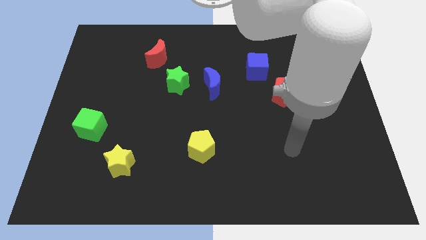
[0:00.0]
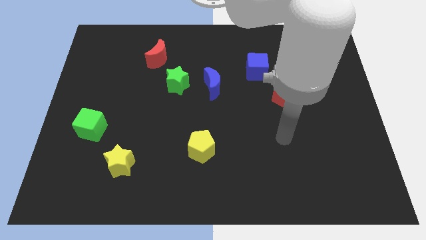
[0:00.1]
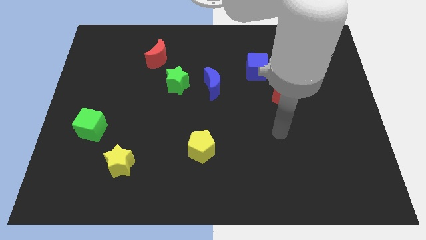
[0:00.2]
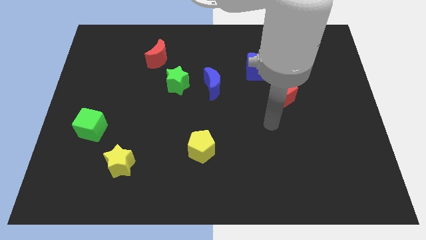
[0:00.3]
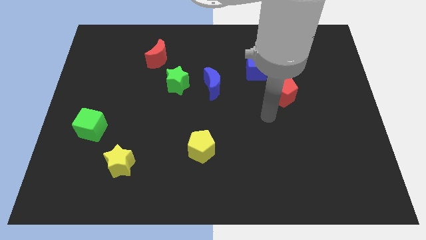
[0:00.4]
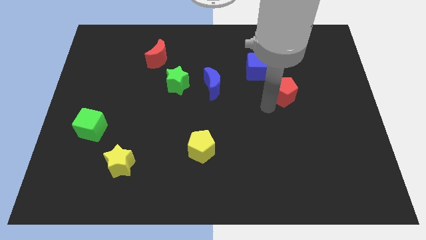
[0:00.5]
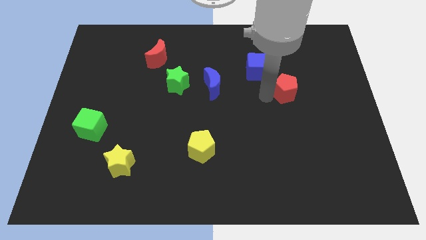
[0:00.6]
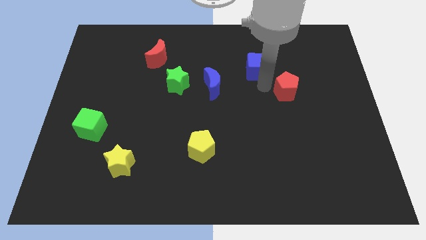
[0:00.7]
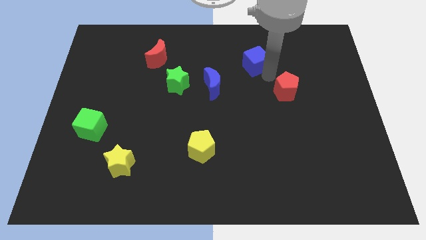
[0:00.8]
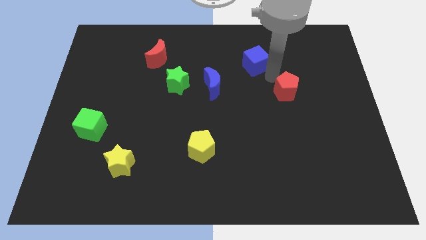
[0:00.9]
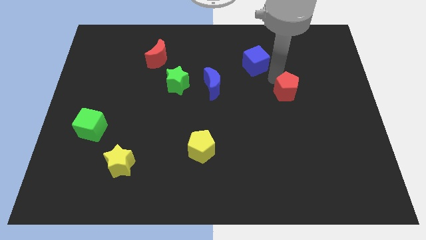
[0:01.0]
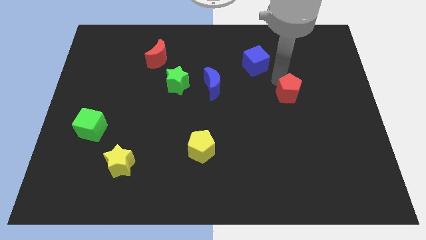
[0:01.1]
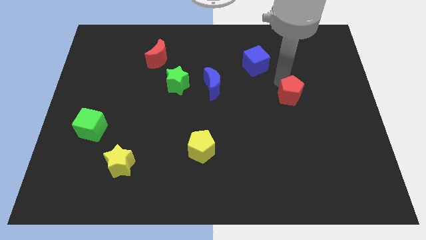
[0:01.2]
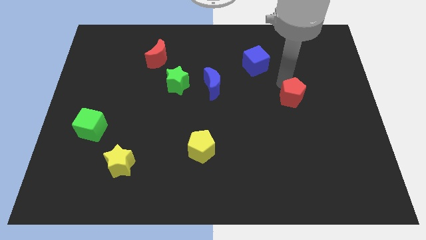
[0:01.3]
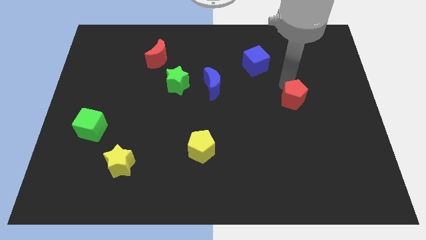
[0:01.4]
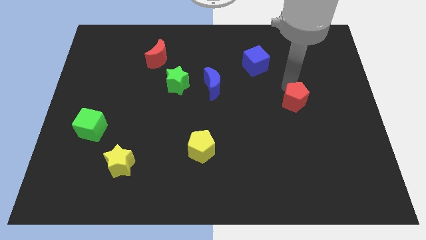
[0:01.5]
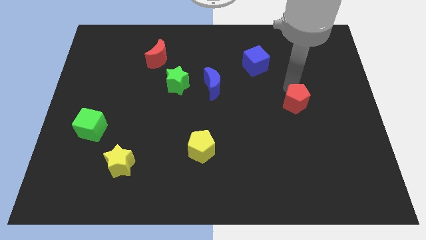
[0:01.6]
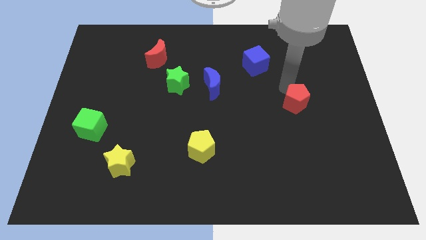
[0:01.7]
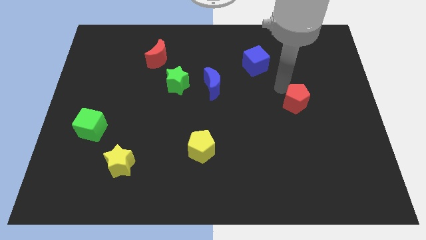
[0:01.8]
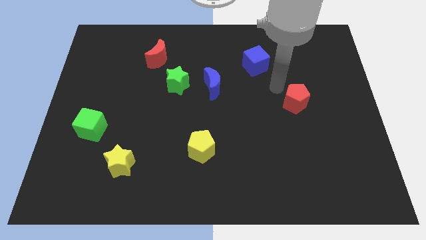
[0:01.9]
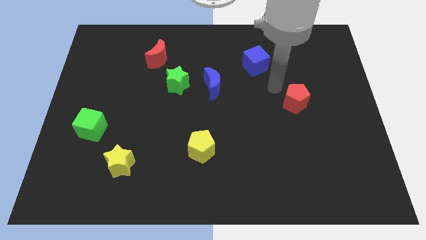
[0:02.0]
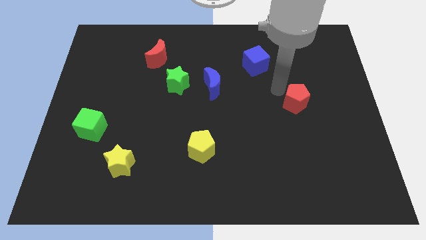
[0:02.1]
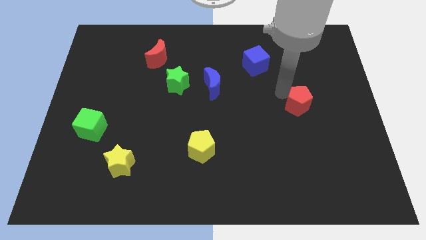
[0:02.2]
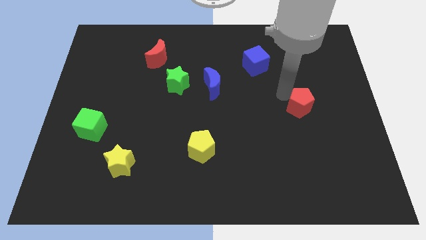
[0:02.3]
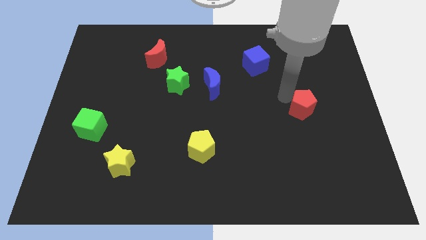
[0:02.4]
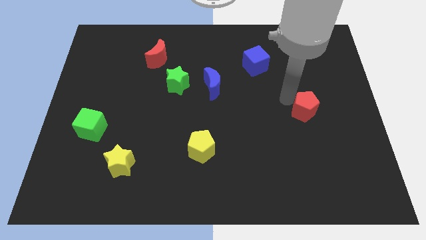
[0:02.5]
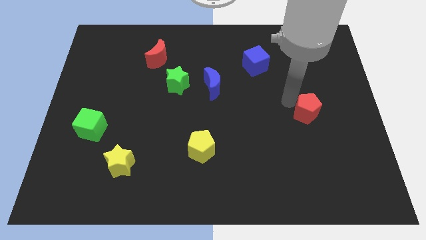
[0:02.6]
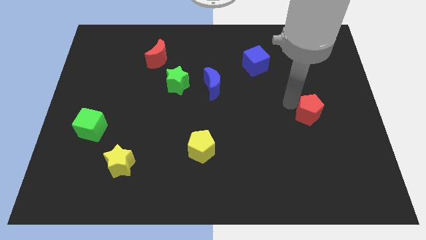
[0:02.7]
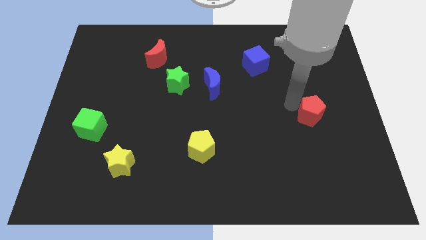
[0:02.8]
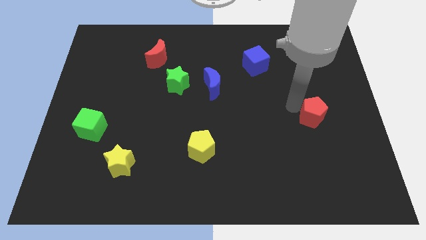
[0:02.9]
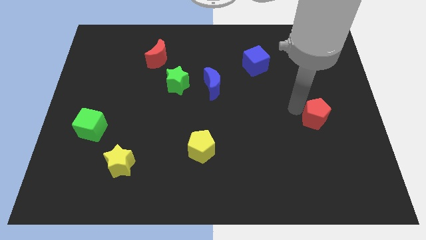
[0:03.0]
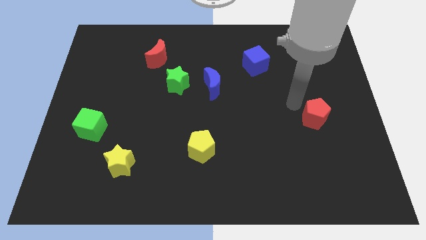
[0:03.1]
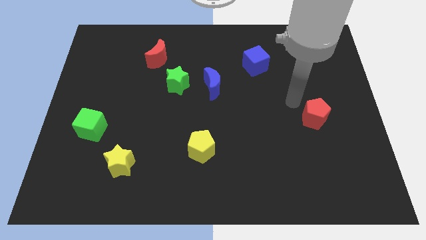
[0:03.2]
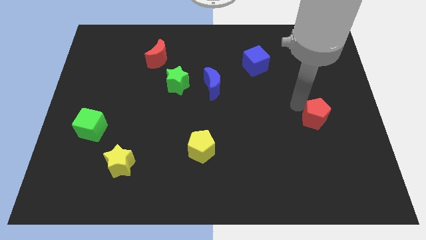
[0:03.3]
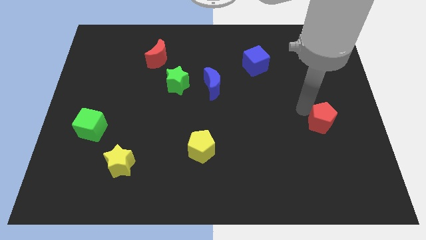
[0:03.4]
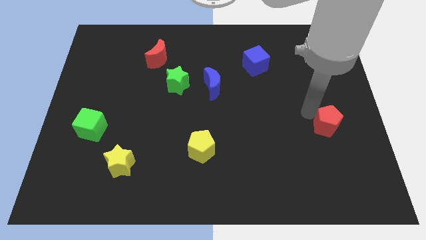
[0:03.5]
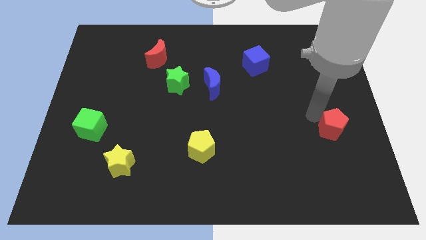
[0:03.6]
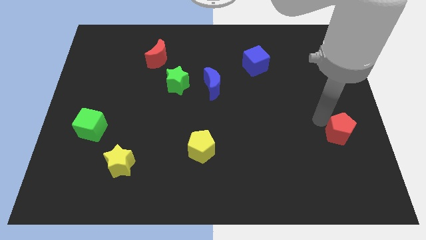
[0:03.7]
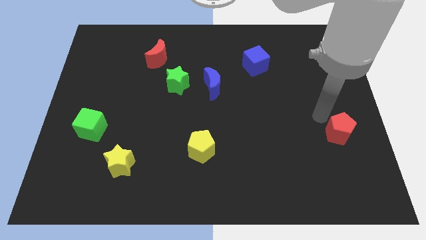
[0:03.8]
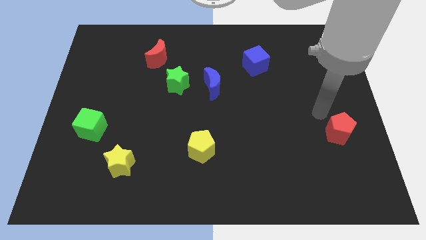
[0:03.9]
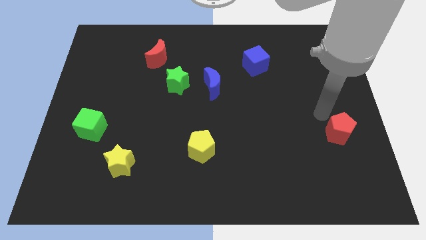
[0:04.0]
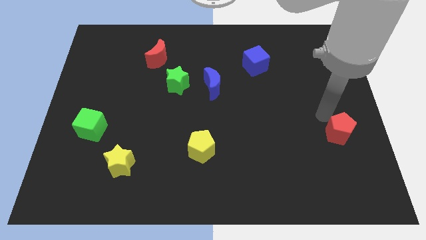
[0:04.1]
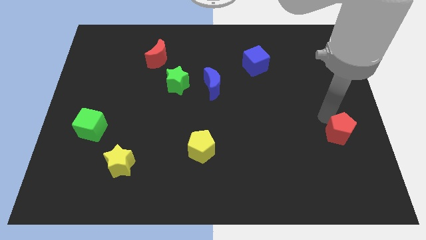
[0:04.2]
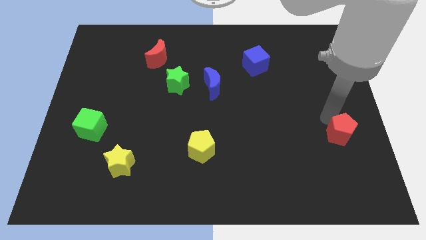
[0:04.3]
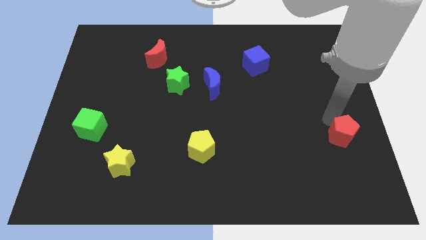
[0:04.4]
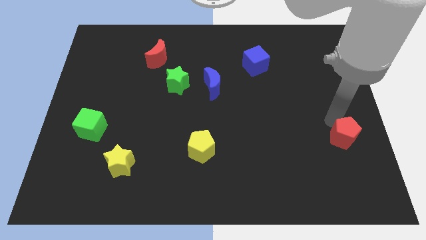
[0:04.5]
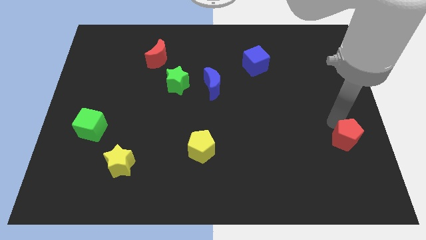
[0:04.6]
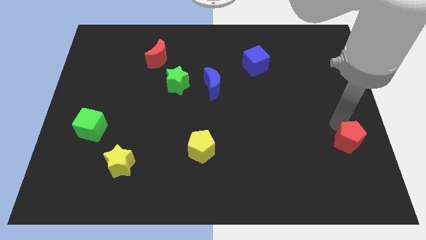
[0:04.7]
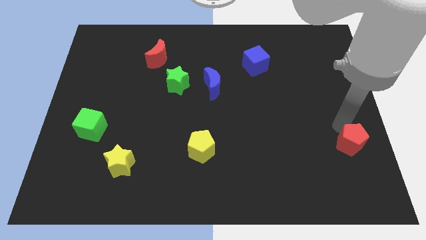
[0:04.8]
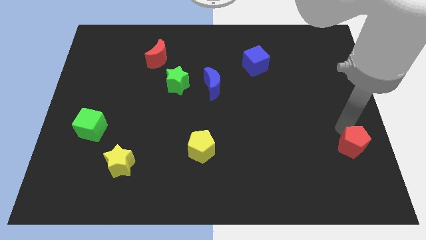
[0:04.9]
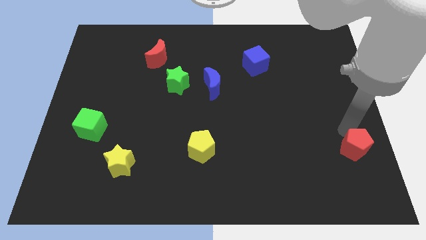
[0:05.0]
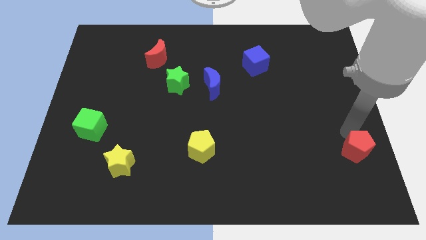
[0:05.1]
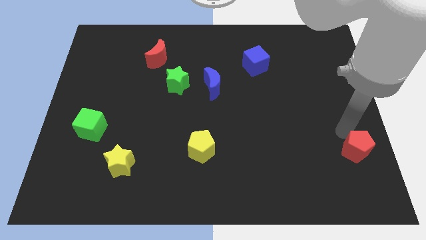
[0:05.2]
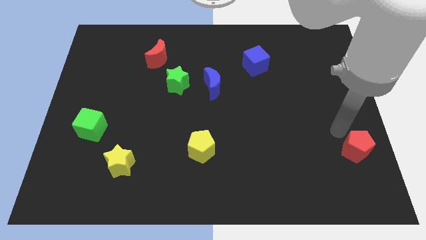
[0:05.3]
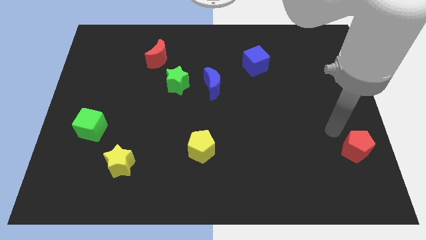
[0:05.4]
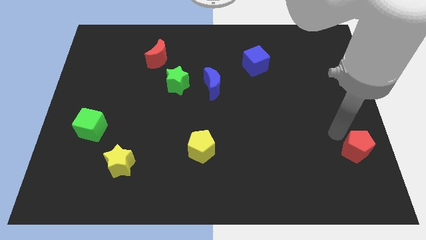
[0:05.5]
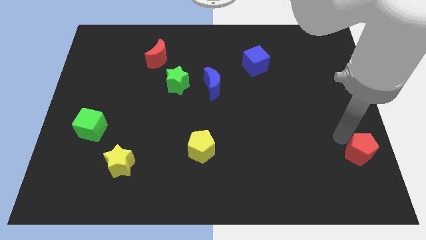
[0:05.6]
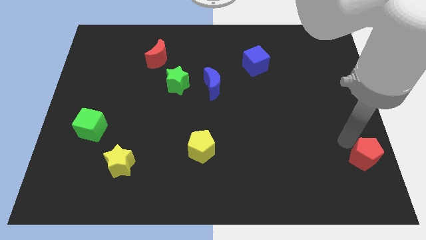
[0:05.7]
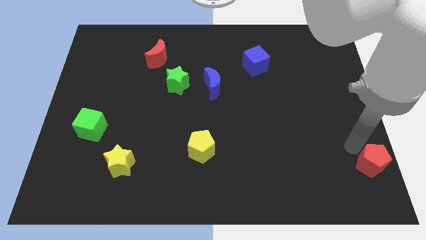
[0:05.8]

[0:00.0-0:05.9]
move the red pentagon to the bottom right
